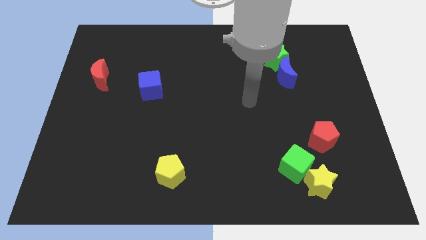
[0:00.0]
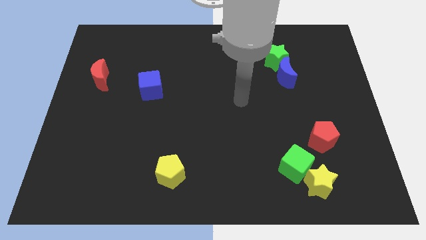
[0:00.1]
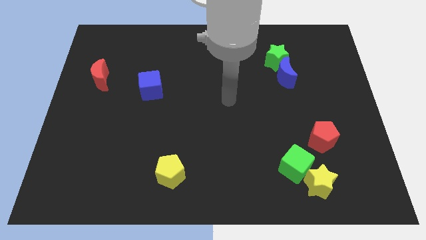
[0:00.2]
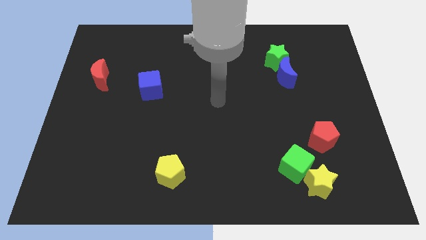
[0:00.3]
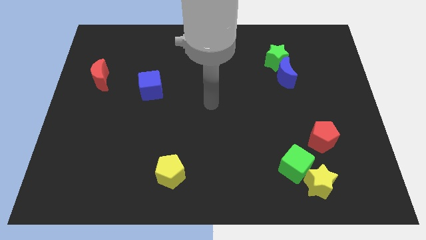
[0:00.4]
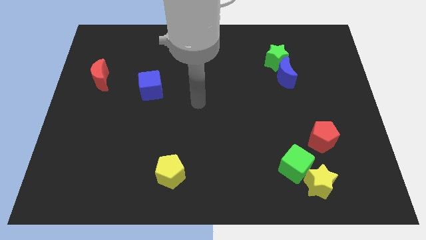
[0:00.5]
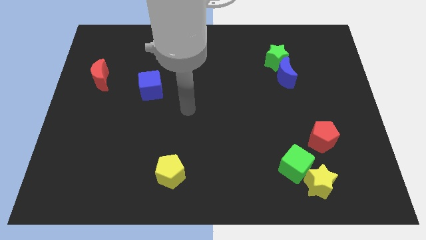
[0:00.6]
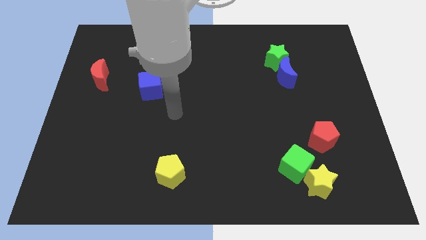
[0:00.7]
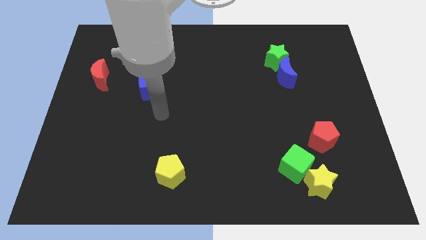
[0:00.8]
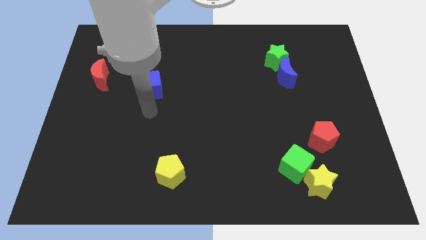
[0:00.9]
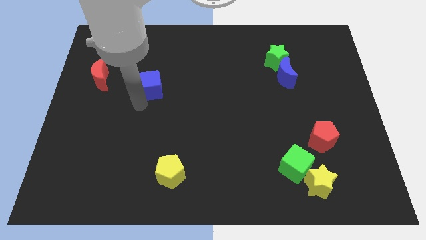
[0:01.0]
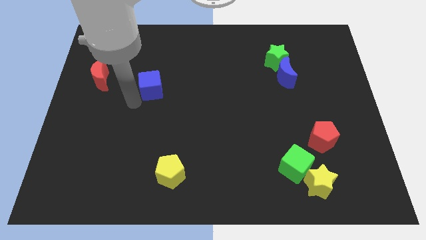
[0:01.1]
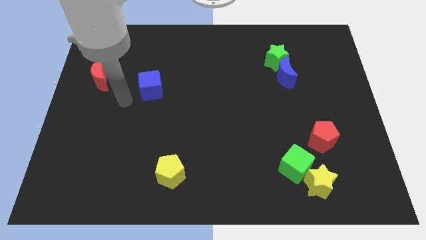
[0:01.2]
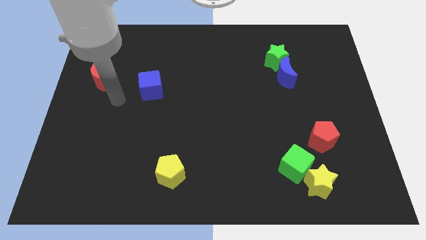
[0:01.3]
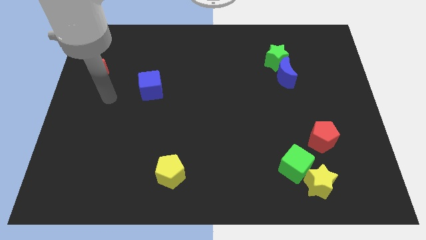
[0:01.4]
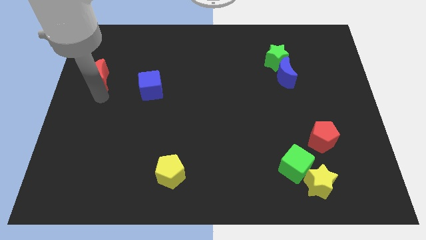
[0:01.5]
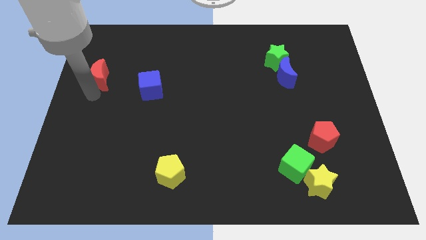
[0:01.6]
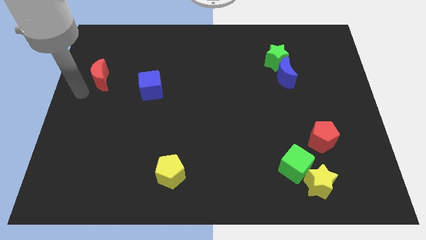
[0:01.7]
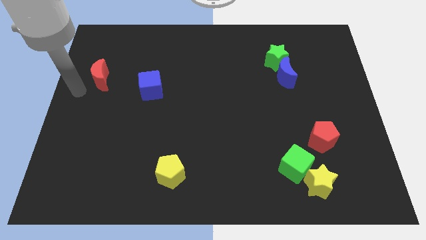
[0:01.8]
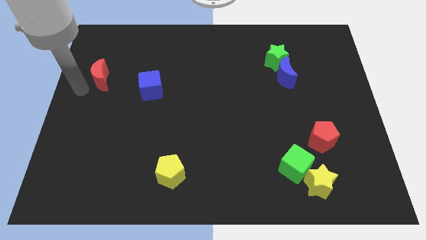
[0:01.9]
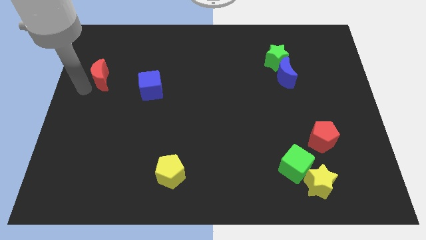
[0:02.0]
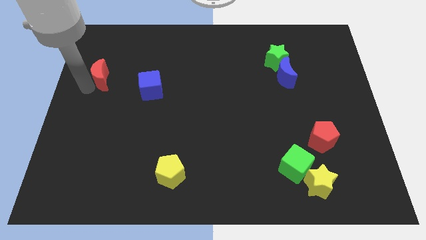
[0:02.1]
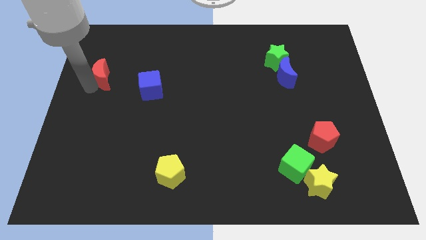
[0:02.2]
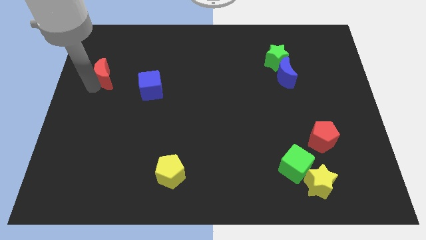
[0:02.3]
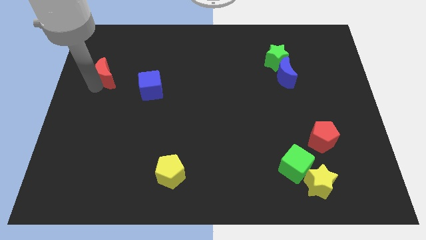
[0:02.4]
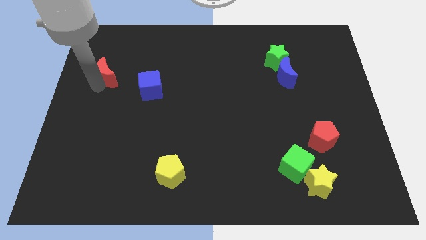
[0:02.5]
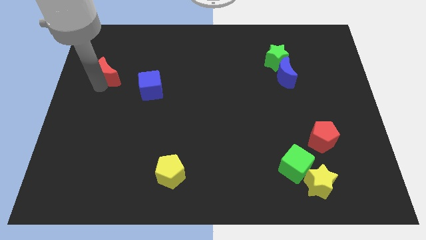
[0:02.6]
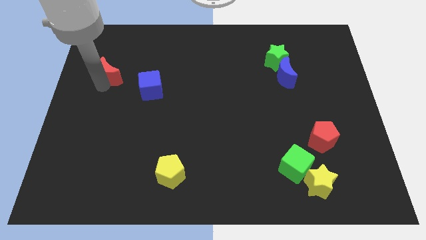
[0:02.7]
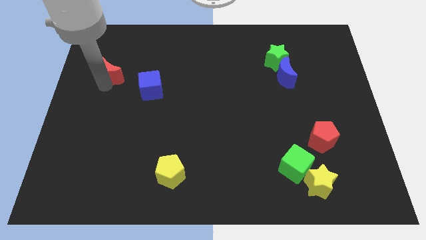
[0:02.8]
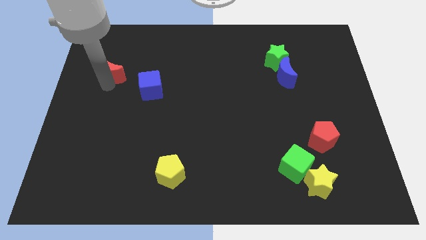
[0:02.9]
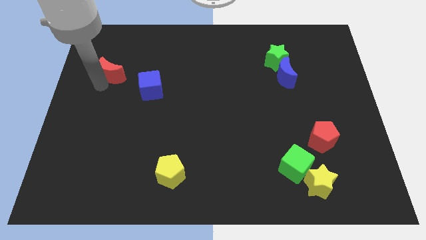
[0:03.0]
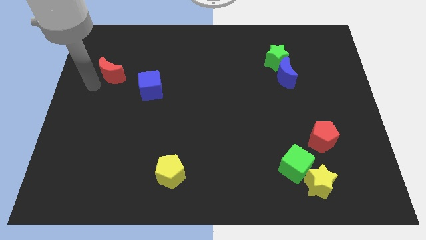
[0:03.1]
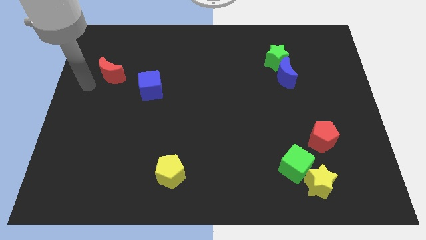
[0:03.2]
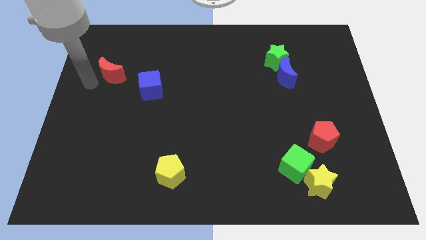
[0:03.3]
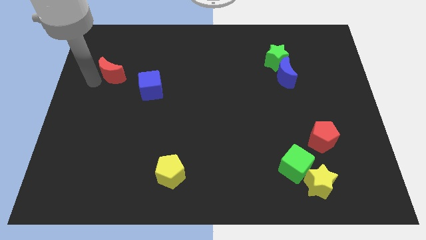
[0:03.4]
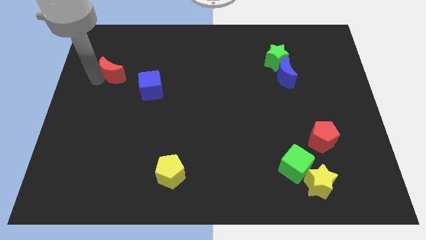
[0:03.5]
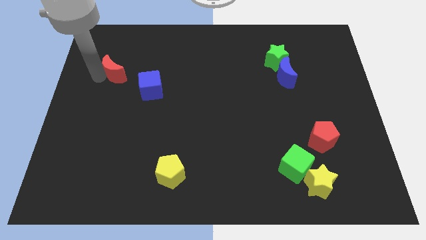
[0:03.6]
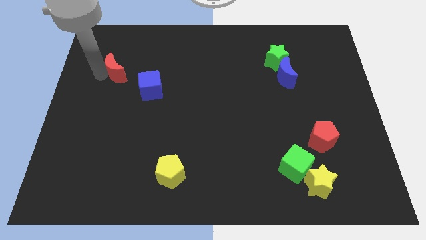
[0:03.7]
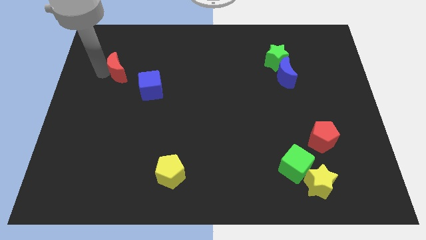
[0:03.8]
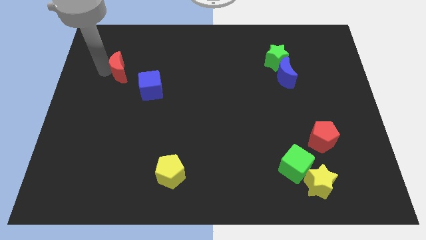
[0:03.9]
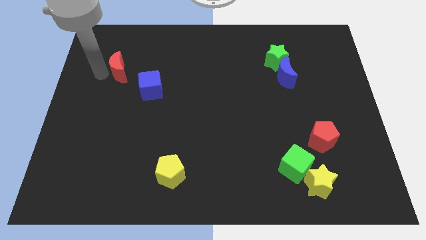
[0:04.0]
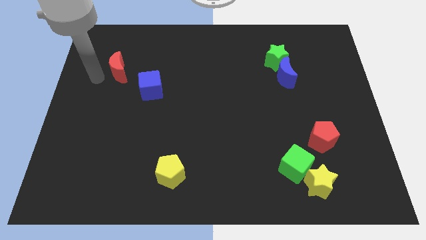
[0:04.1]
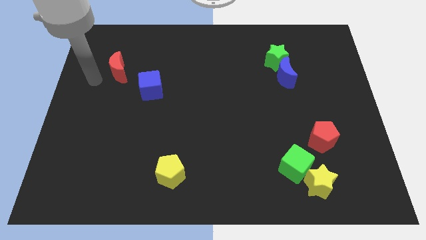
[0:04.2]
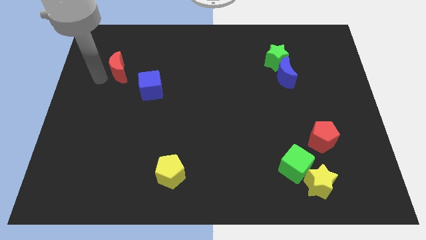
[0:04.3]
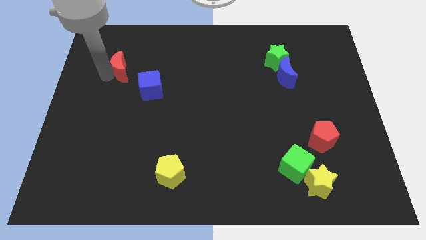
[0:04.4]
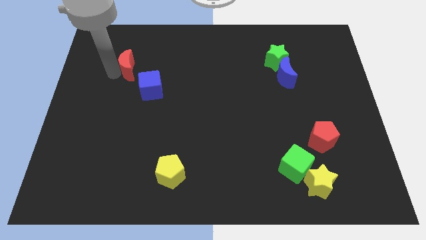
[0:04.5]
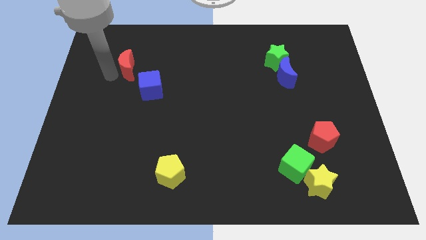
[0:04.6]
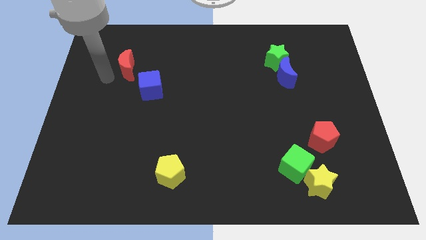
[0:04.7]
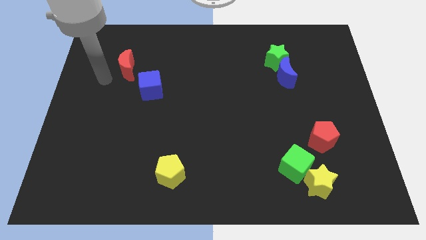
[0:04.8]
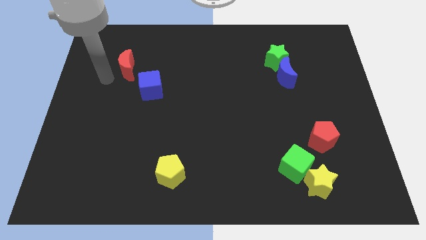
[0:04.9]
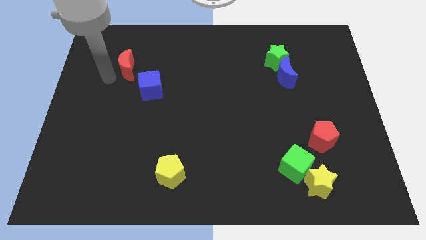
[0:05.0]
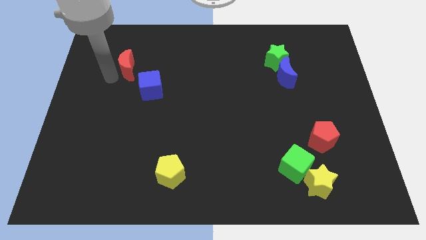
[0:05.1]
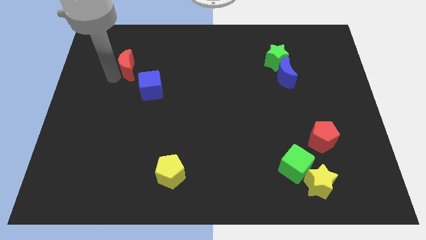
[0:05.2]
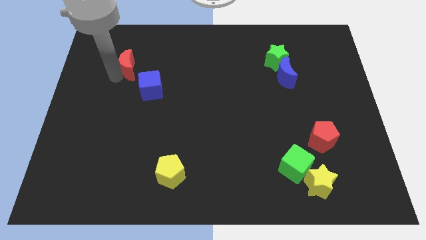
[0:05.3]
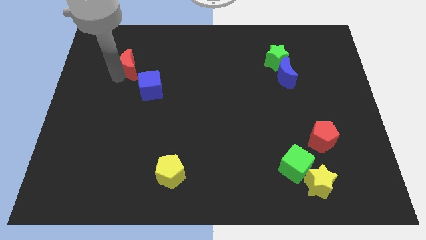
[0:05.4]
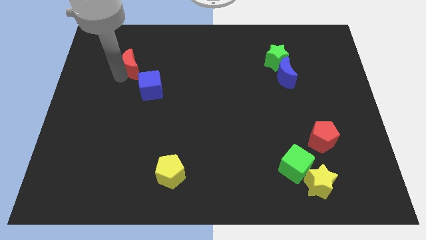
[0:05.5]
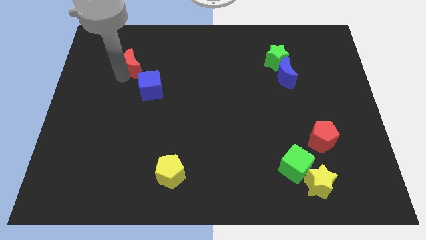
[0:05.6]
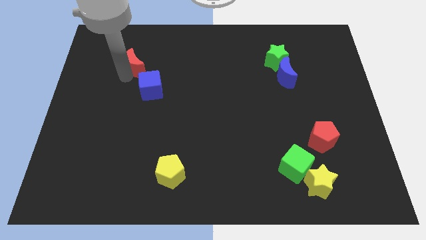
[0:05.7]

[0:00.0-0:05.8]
put the red moon to the top of the blue cube

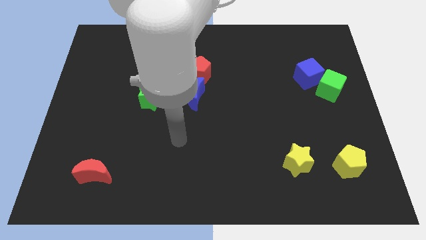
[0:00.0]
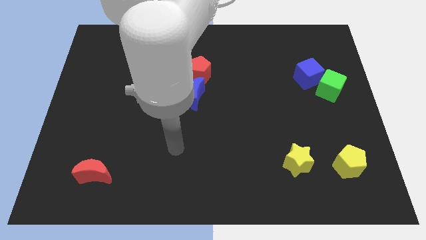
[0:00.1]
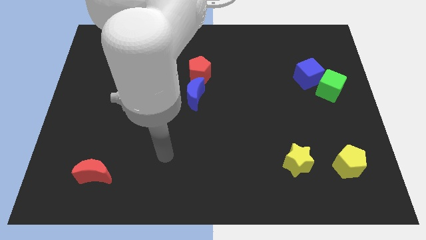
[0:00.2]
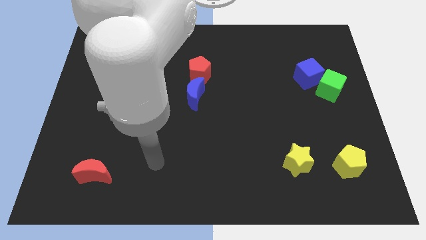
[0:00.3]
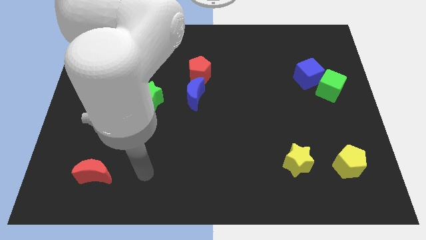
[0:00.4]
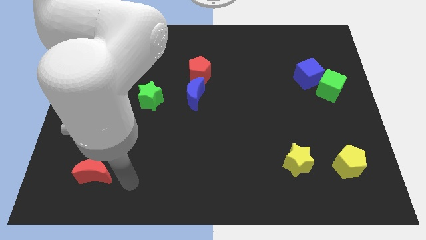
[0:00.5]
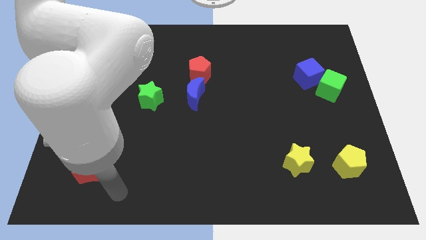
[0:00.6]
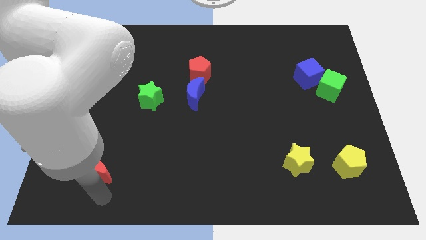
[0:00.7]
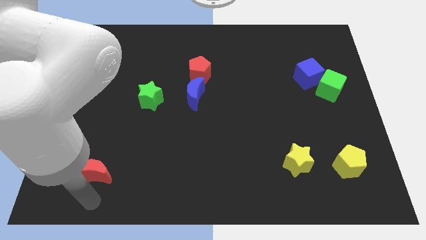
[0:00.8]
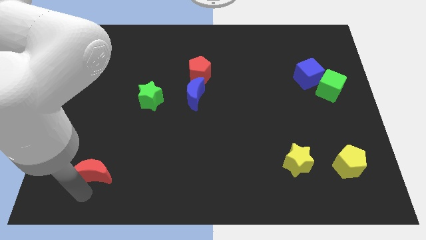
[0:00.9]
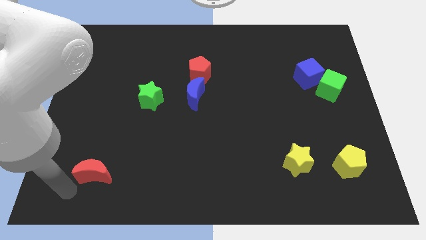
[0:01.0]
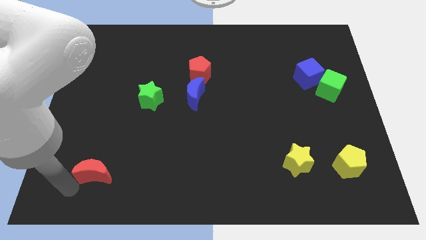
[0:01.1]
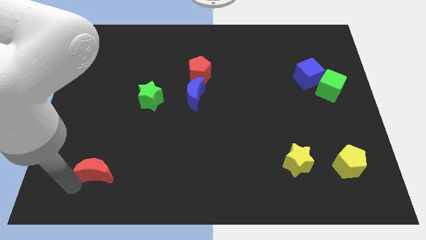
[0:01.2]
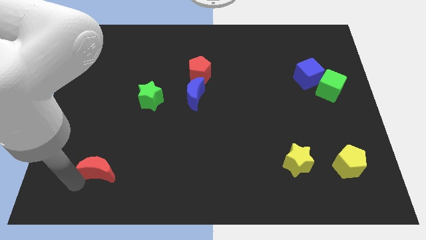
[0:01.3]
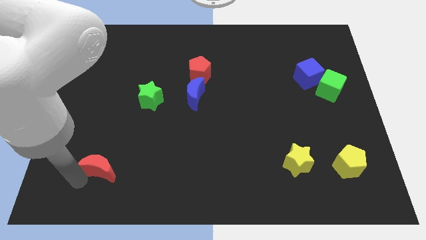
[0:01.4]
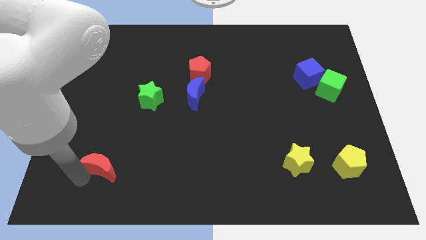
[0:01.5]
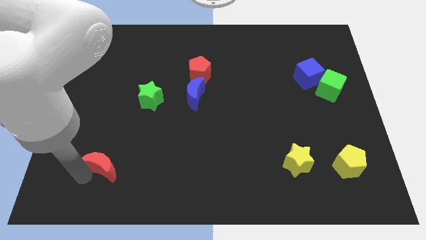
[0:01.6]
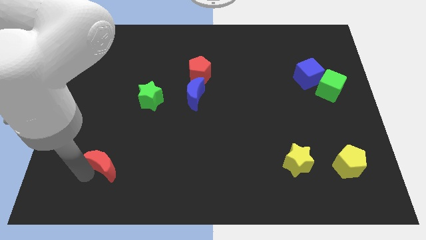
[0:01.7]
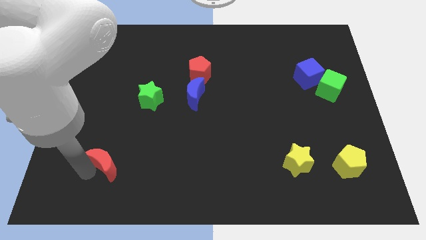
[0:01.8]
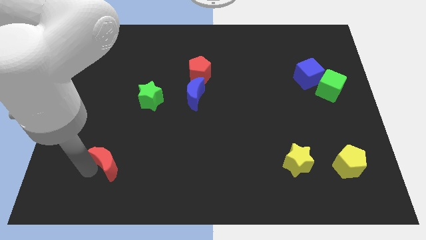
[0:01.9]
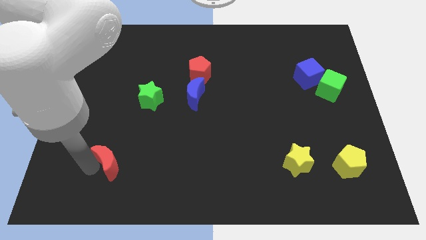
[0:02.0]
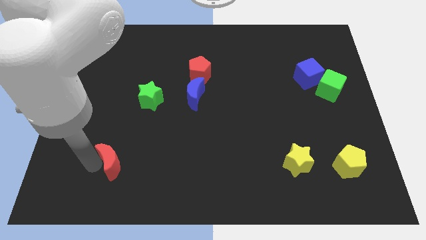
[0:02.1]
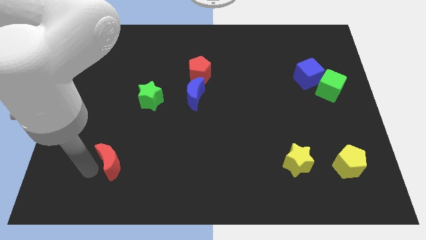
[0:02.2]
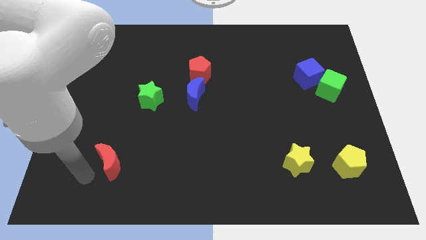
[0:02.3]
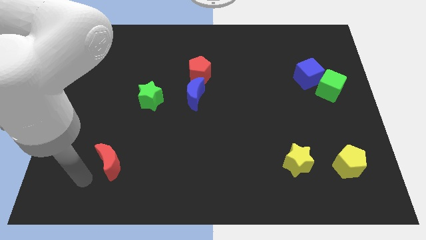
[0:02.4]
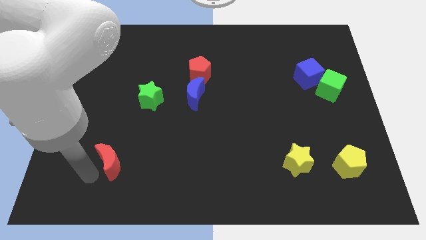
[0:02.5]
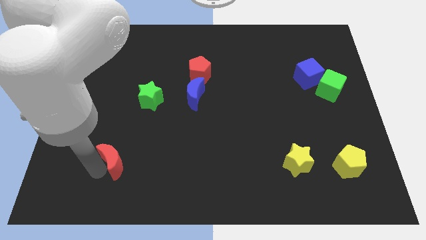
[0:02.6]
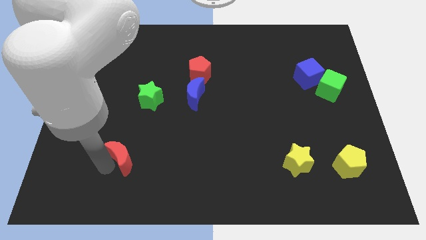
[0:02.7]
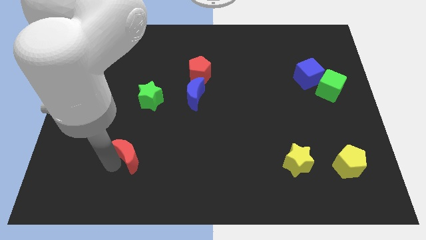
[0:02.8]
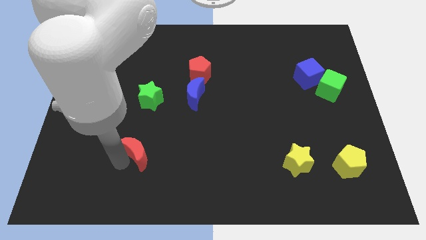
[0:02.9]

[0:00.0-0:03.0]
put the red moon to the bottom side of the green star
